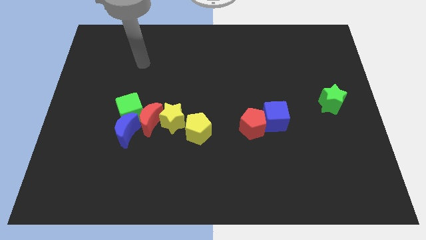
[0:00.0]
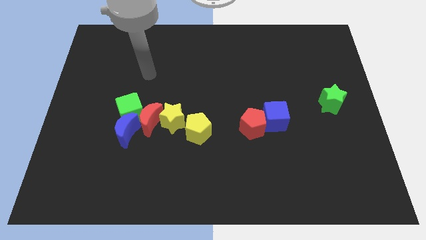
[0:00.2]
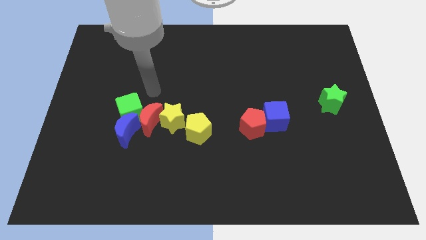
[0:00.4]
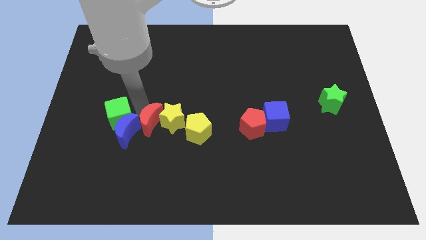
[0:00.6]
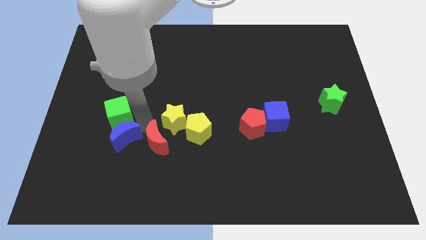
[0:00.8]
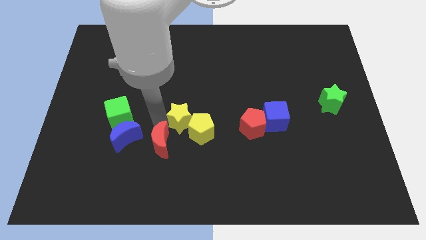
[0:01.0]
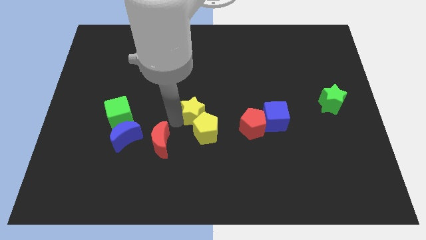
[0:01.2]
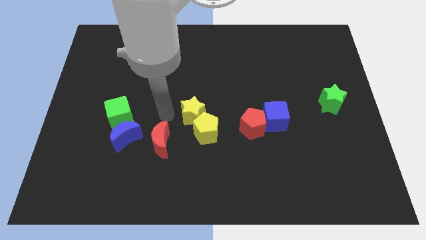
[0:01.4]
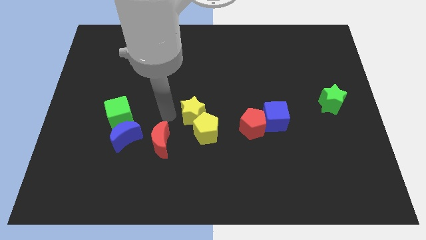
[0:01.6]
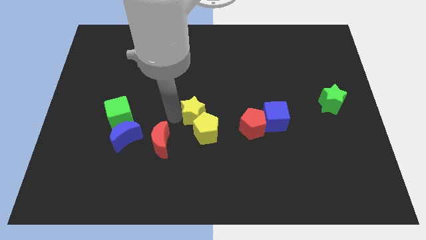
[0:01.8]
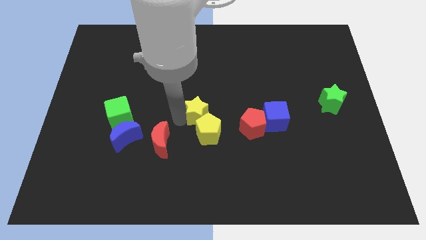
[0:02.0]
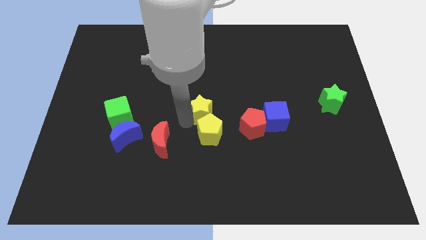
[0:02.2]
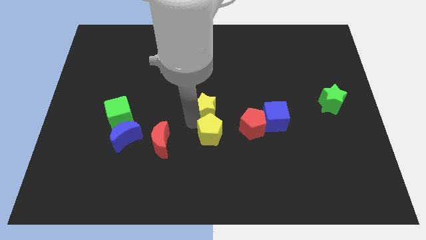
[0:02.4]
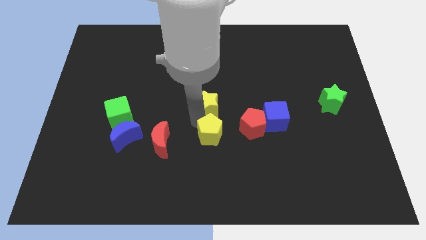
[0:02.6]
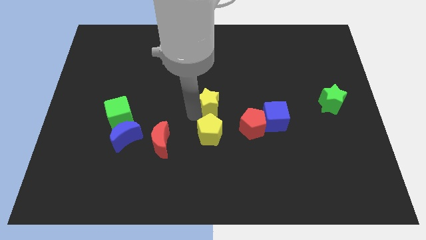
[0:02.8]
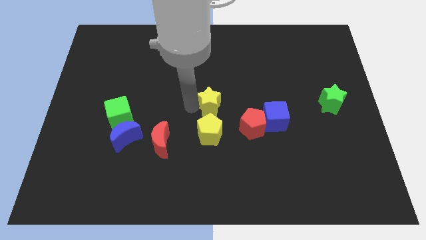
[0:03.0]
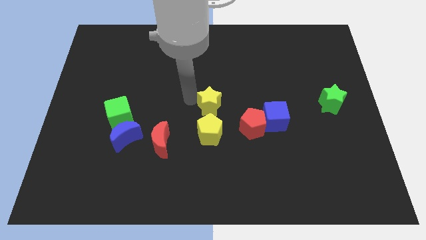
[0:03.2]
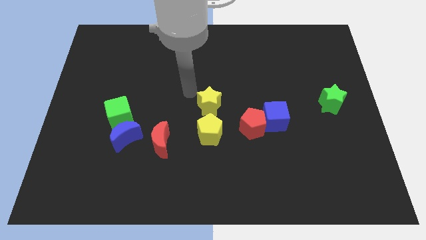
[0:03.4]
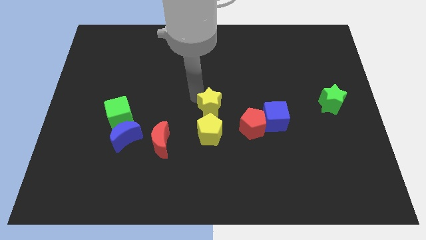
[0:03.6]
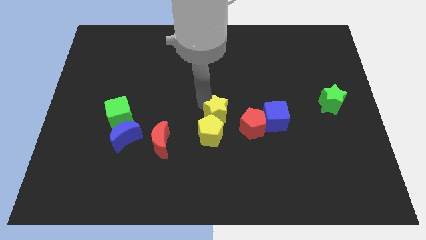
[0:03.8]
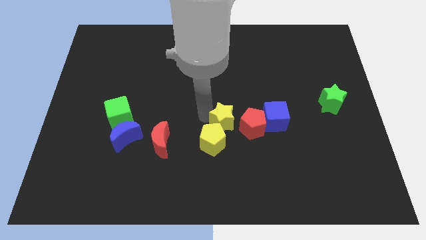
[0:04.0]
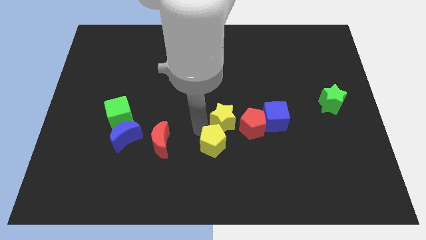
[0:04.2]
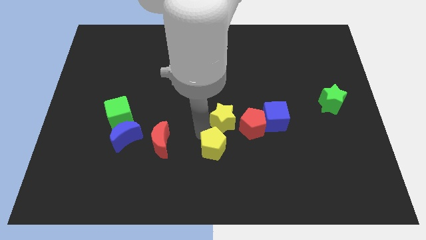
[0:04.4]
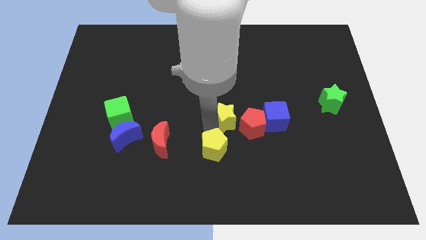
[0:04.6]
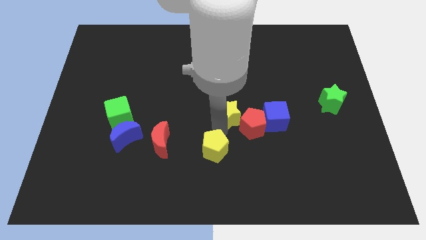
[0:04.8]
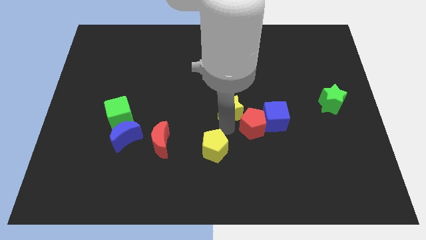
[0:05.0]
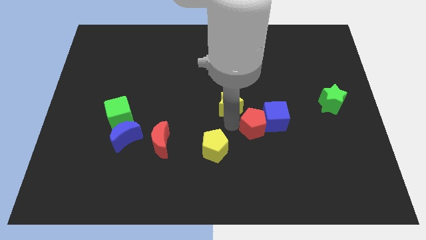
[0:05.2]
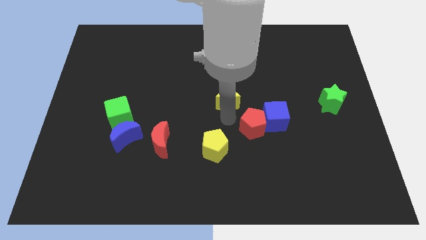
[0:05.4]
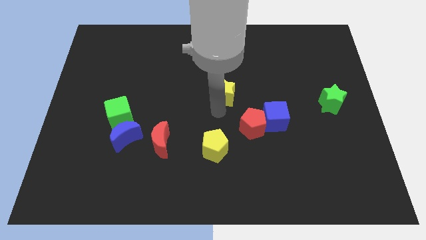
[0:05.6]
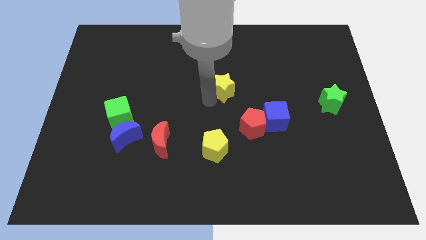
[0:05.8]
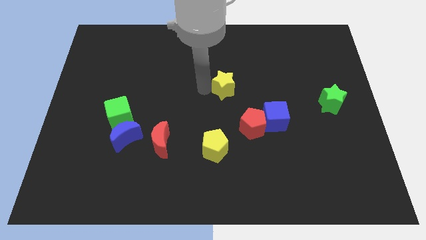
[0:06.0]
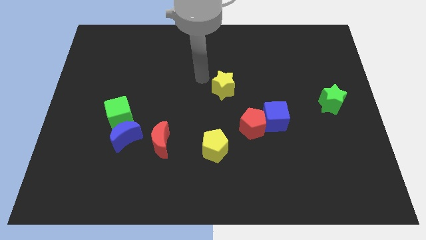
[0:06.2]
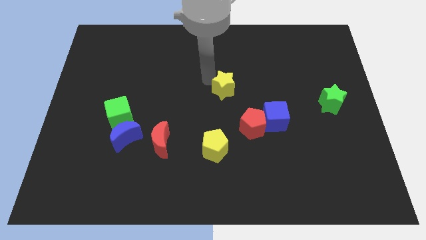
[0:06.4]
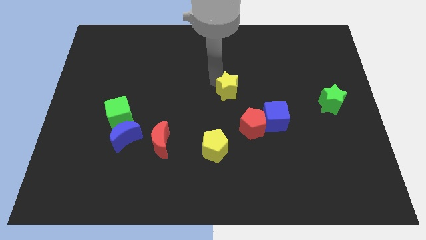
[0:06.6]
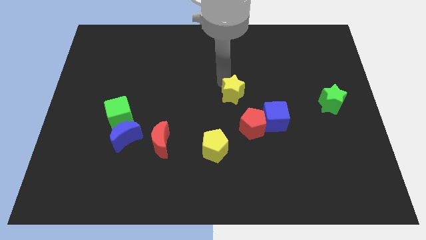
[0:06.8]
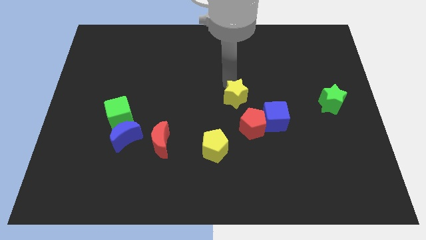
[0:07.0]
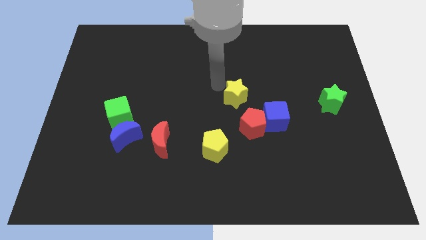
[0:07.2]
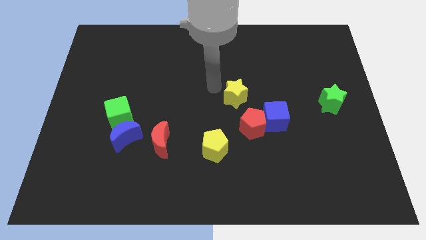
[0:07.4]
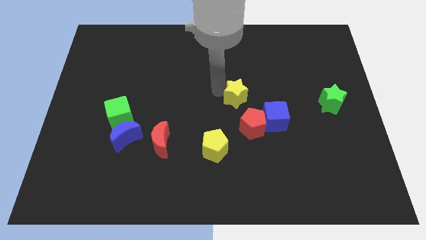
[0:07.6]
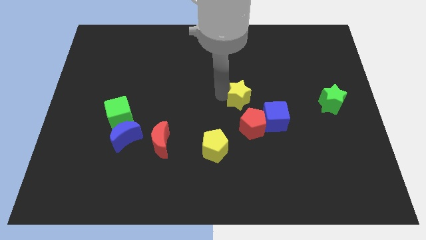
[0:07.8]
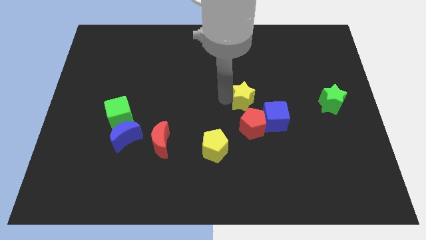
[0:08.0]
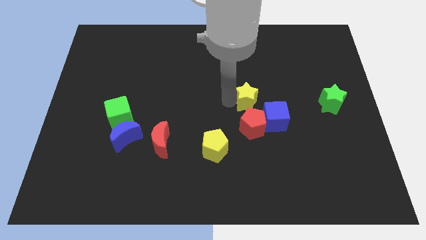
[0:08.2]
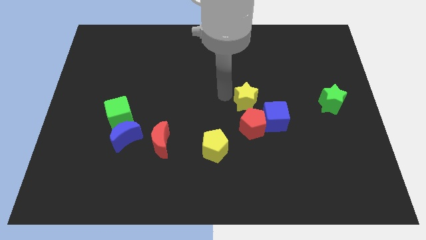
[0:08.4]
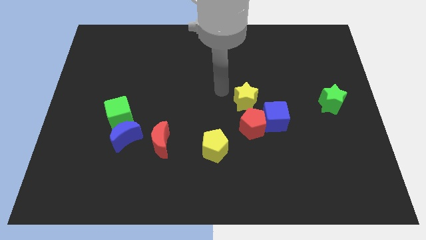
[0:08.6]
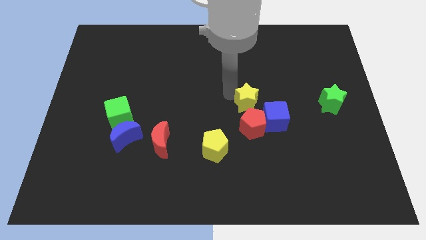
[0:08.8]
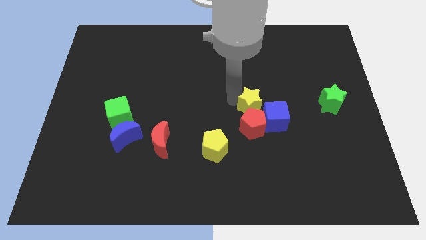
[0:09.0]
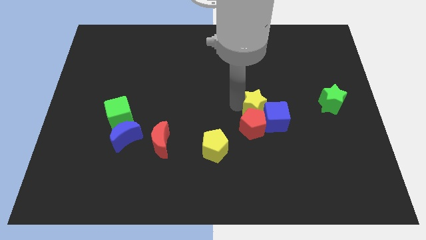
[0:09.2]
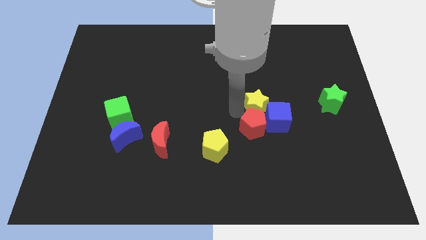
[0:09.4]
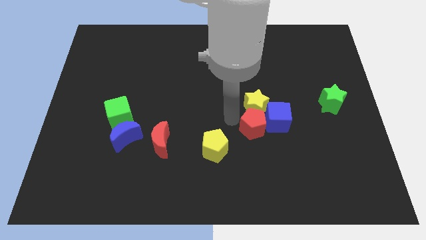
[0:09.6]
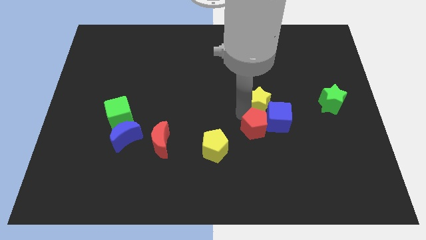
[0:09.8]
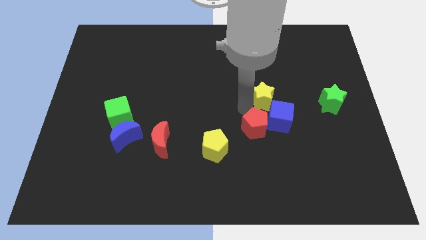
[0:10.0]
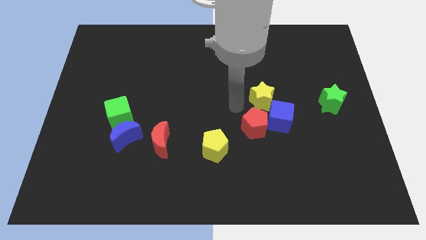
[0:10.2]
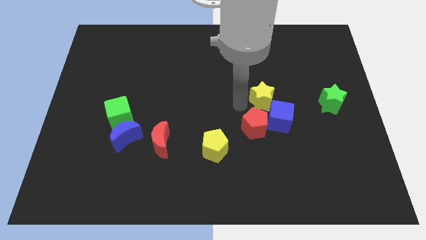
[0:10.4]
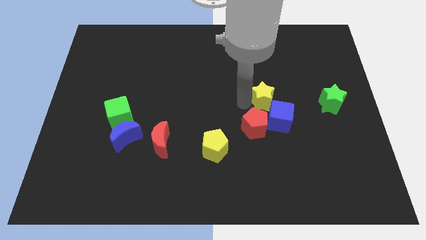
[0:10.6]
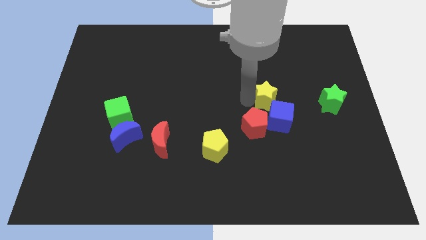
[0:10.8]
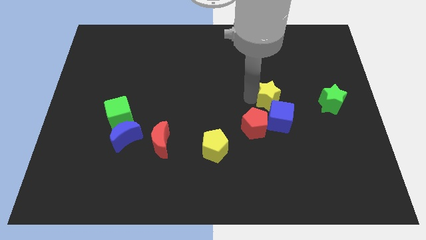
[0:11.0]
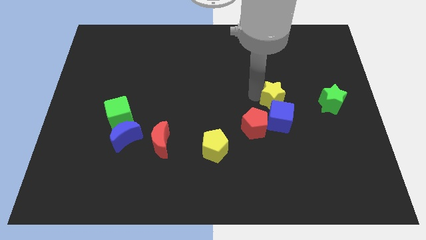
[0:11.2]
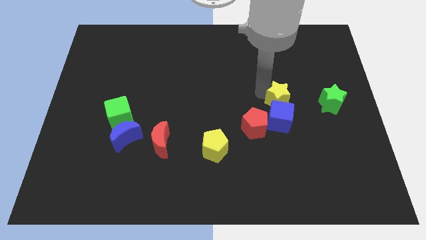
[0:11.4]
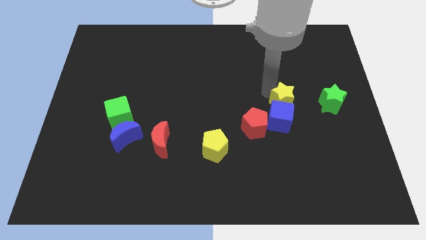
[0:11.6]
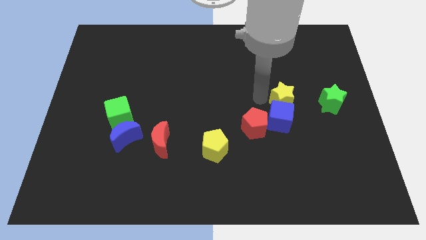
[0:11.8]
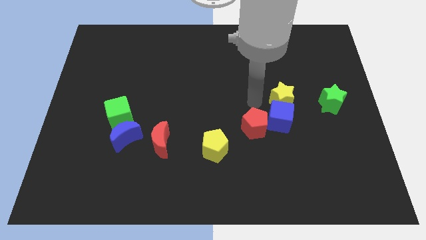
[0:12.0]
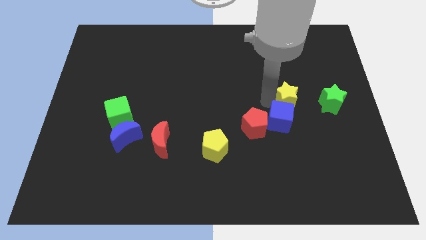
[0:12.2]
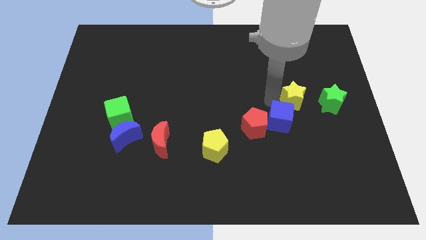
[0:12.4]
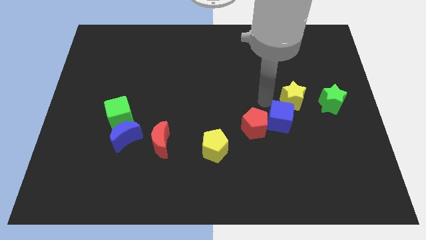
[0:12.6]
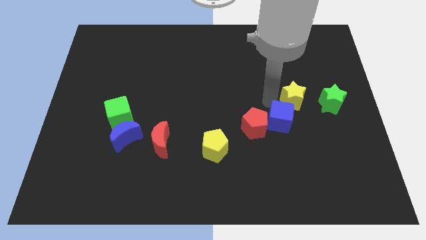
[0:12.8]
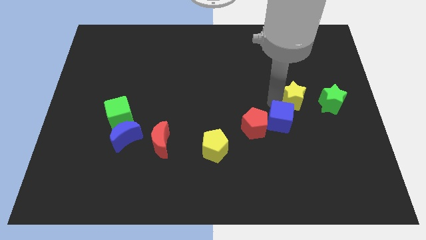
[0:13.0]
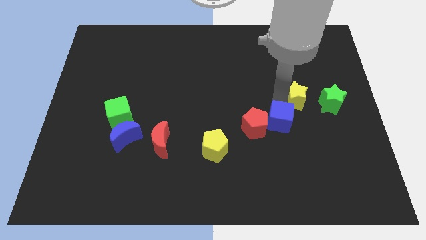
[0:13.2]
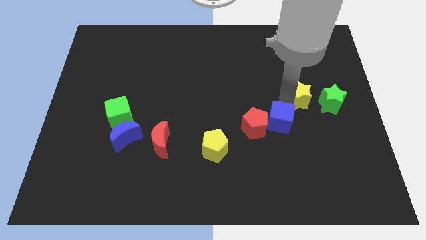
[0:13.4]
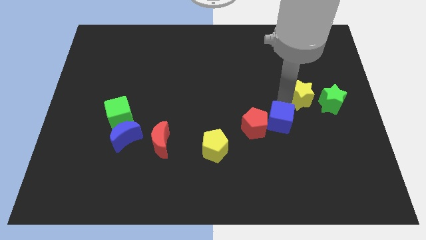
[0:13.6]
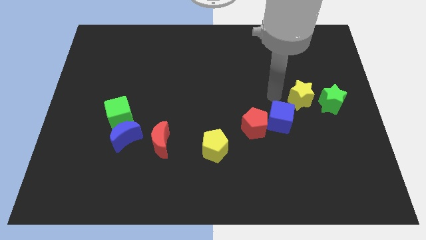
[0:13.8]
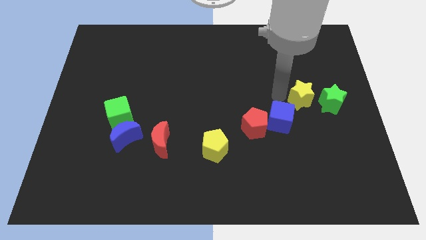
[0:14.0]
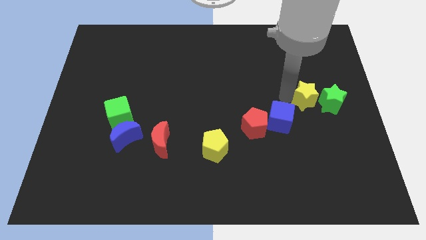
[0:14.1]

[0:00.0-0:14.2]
put the yellow star to the green star

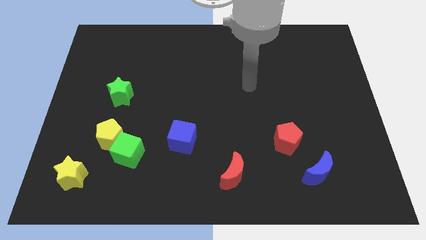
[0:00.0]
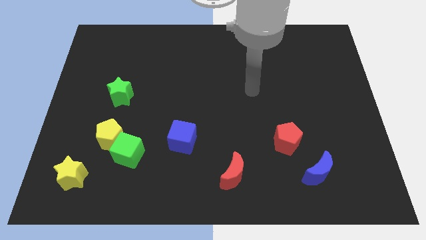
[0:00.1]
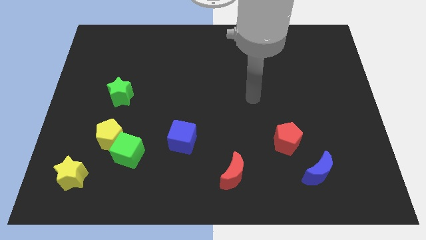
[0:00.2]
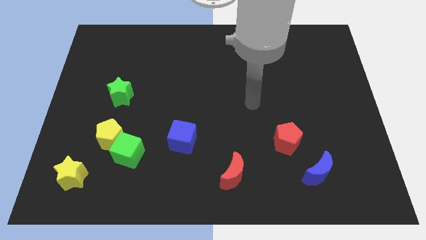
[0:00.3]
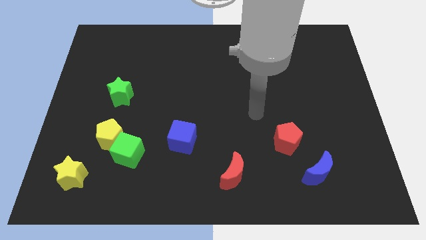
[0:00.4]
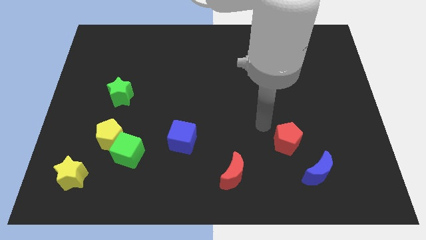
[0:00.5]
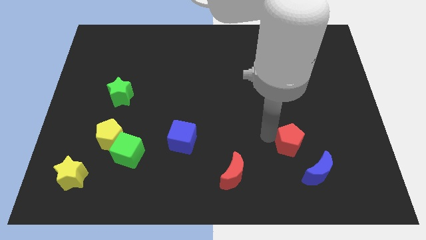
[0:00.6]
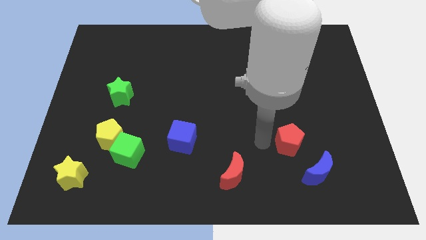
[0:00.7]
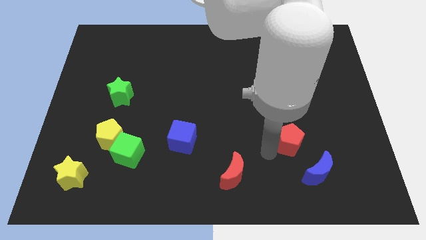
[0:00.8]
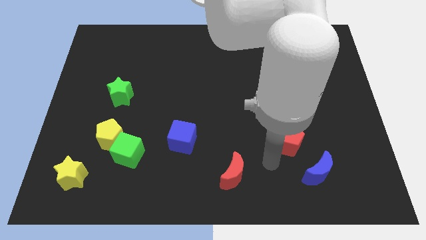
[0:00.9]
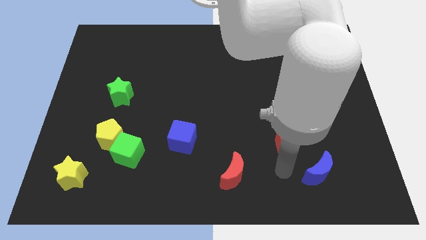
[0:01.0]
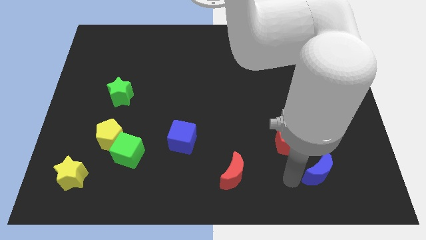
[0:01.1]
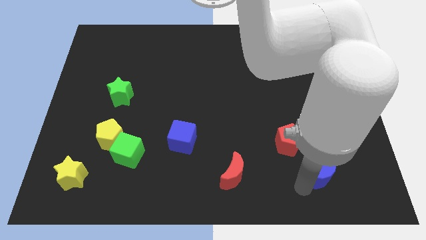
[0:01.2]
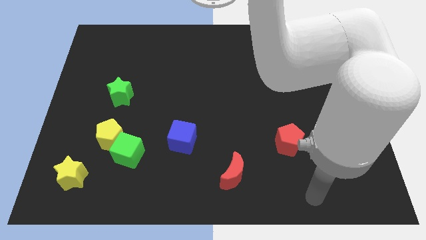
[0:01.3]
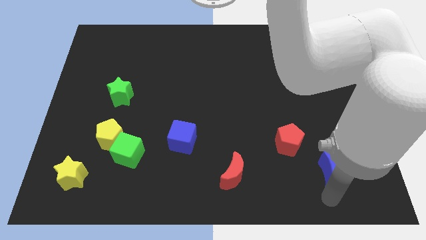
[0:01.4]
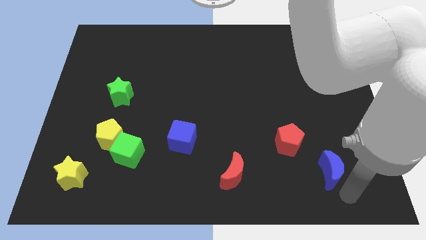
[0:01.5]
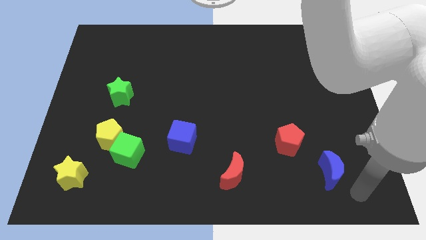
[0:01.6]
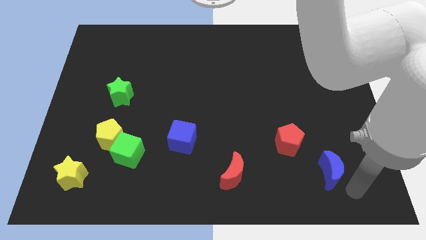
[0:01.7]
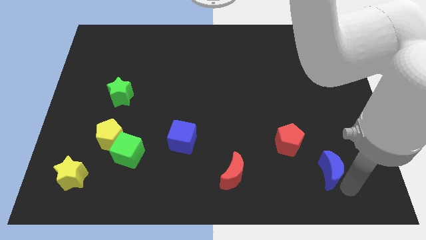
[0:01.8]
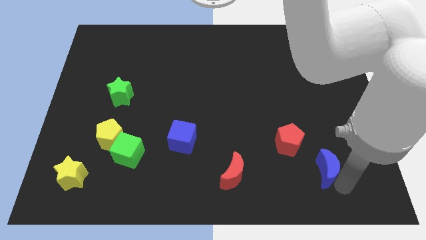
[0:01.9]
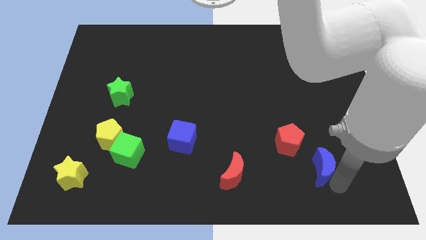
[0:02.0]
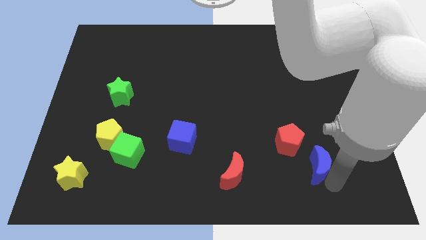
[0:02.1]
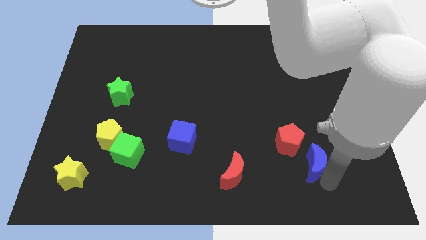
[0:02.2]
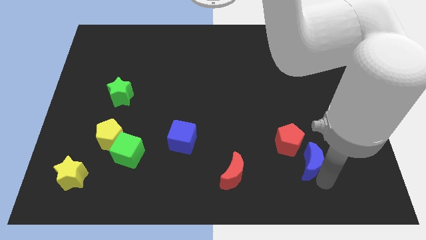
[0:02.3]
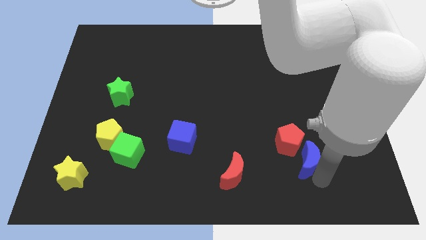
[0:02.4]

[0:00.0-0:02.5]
push the blue moon towards the red pentagon
